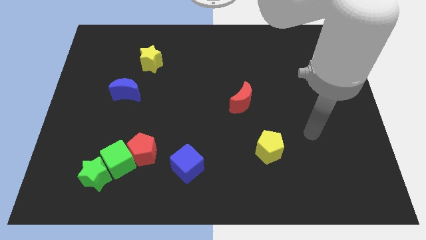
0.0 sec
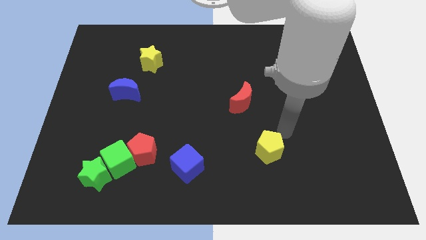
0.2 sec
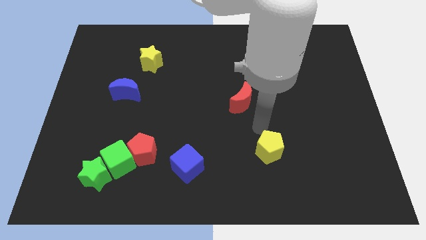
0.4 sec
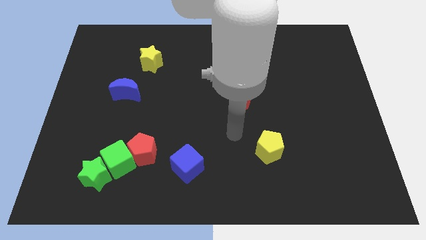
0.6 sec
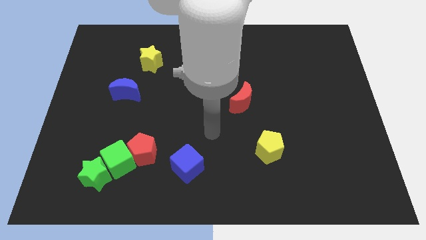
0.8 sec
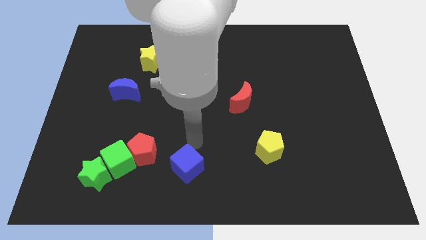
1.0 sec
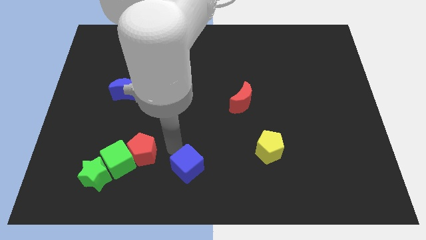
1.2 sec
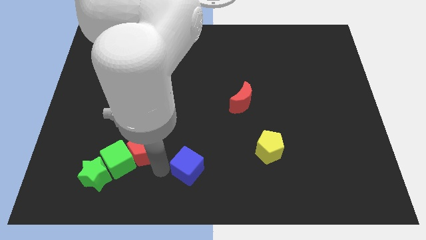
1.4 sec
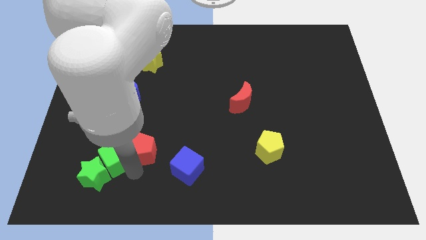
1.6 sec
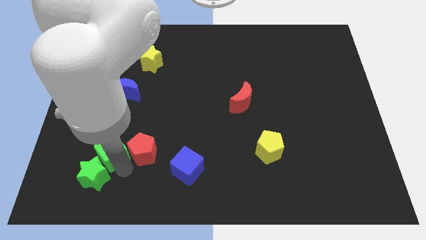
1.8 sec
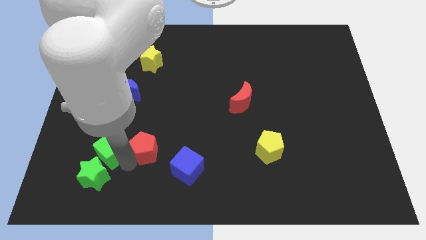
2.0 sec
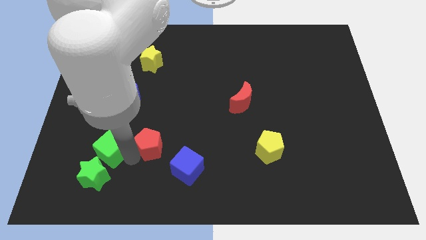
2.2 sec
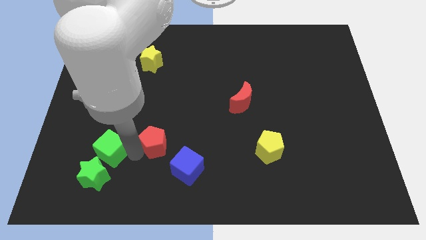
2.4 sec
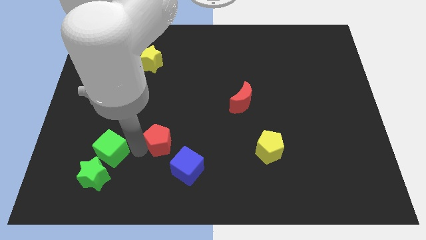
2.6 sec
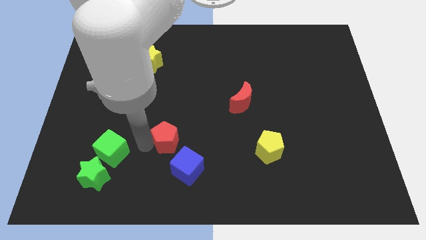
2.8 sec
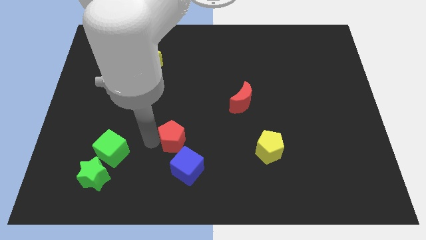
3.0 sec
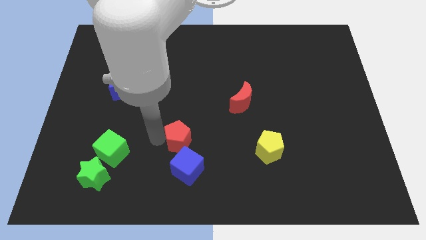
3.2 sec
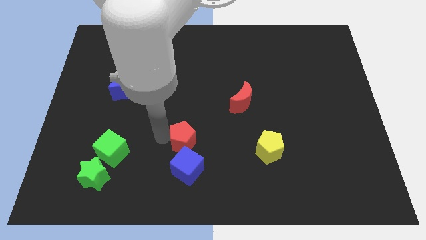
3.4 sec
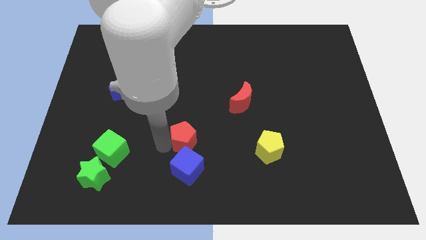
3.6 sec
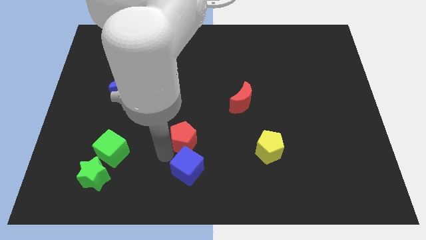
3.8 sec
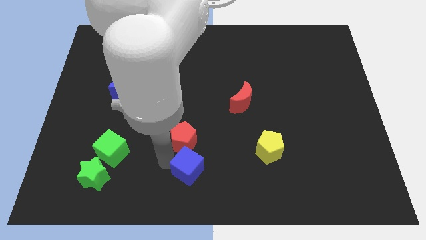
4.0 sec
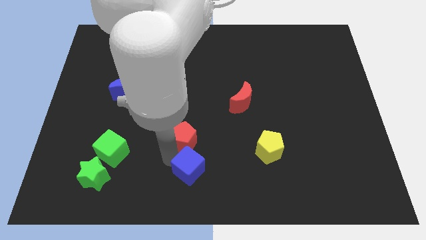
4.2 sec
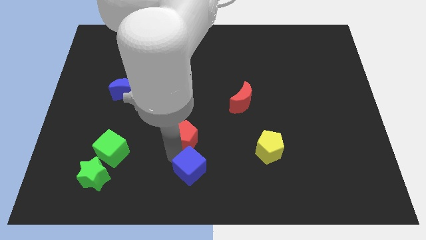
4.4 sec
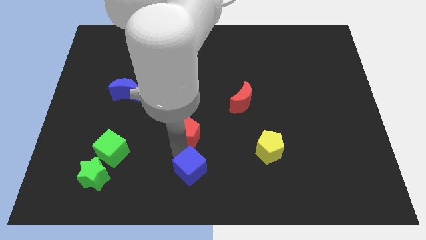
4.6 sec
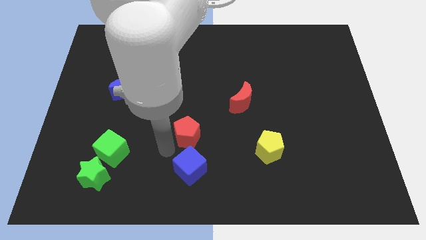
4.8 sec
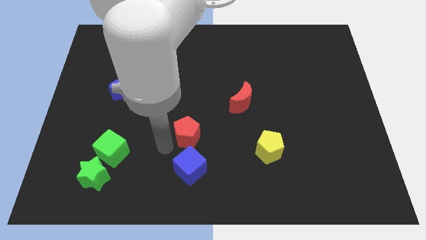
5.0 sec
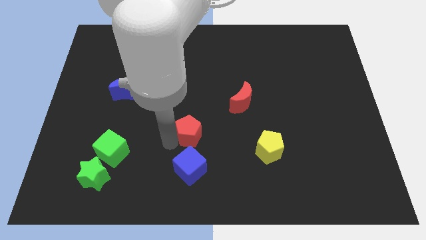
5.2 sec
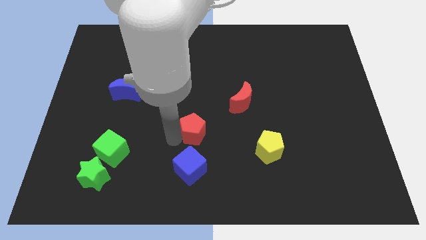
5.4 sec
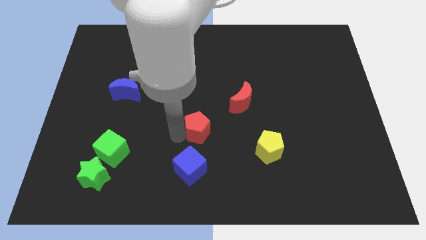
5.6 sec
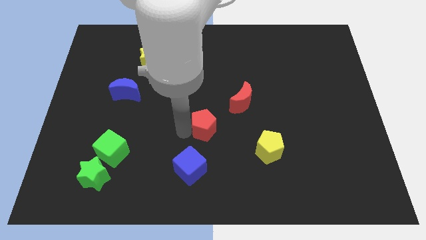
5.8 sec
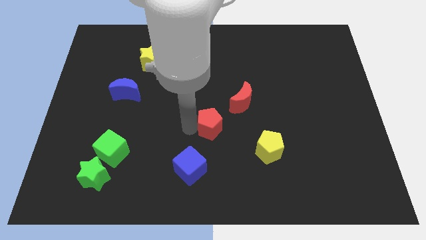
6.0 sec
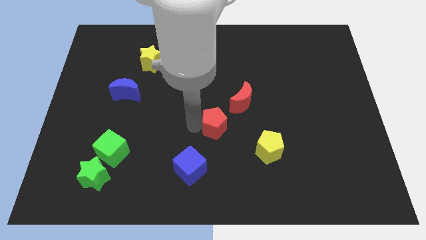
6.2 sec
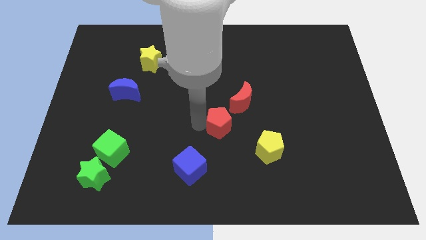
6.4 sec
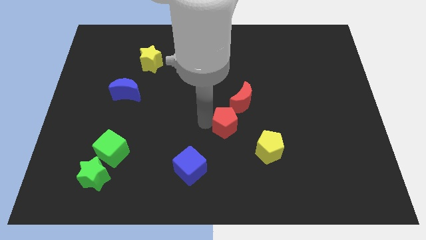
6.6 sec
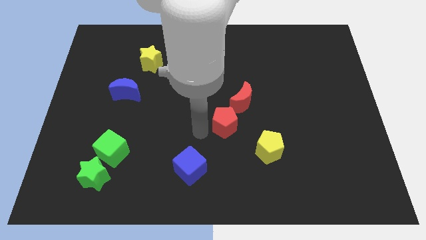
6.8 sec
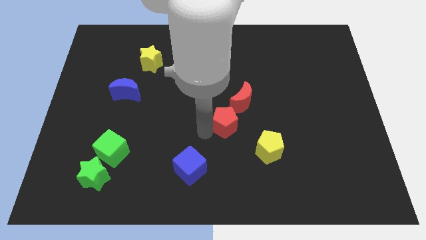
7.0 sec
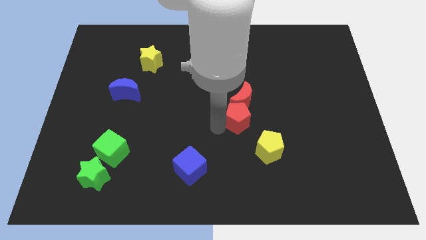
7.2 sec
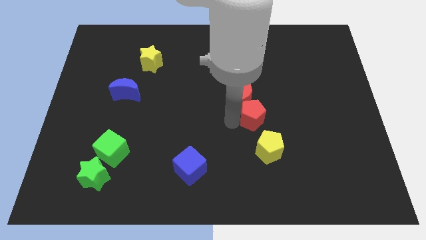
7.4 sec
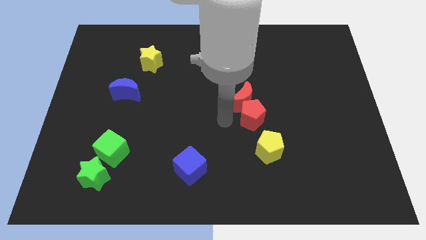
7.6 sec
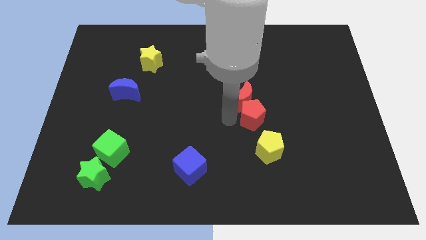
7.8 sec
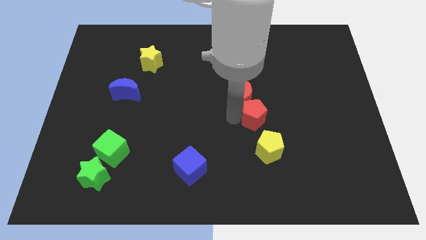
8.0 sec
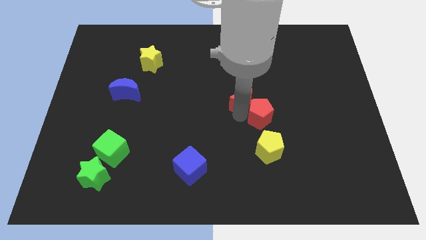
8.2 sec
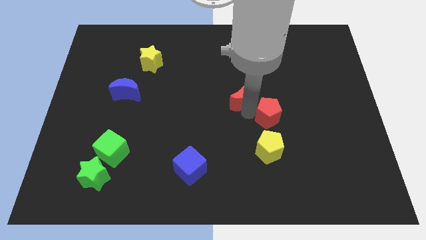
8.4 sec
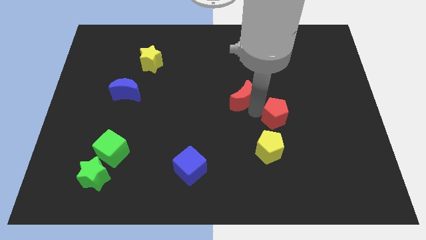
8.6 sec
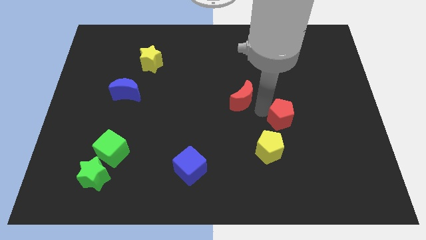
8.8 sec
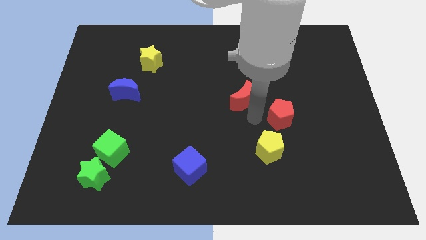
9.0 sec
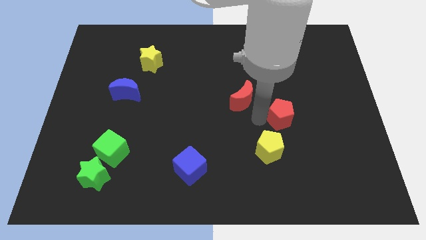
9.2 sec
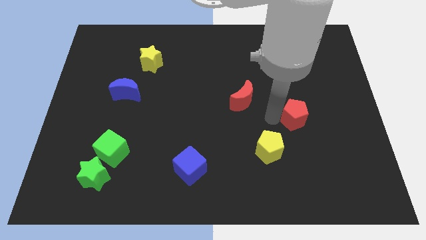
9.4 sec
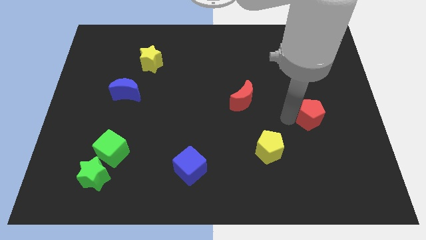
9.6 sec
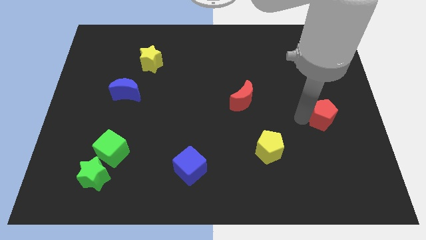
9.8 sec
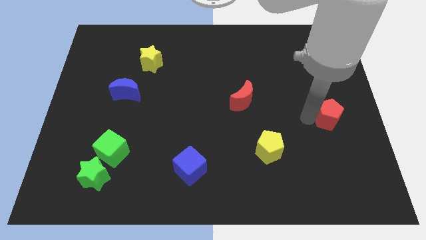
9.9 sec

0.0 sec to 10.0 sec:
move the red pentagon to the right side

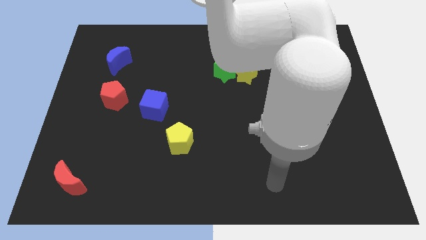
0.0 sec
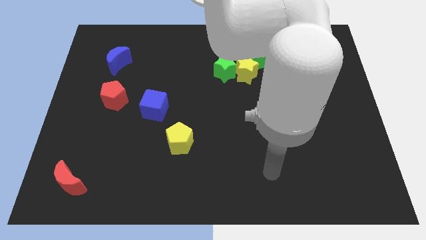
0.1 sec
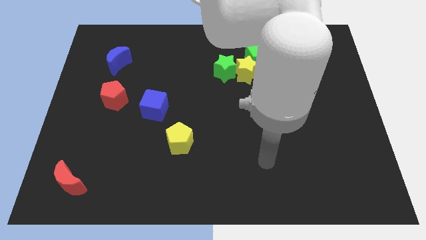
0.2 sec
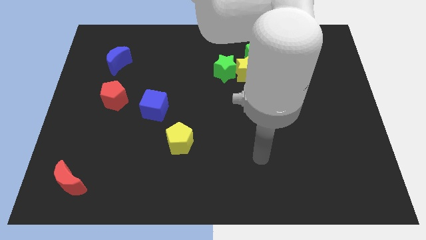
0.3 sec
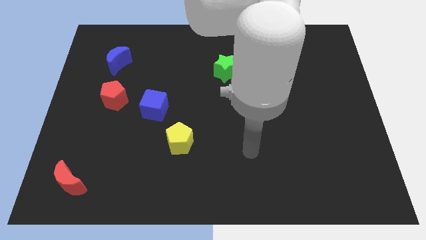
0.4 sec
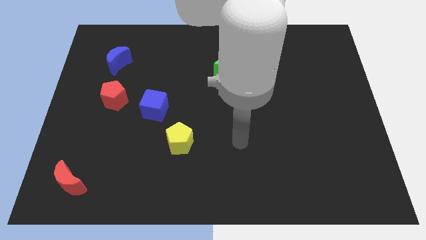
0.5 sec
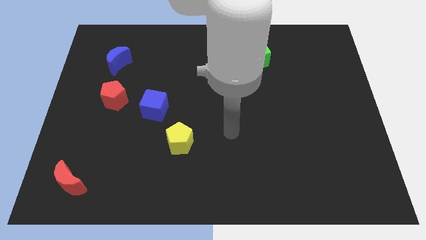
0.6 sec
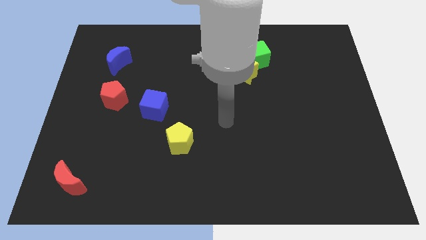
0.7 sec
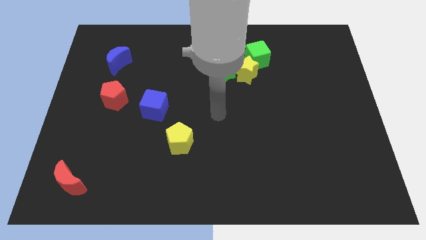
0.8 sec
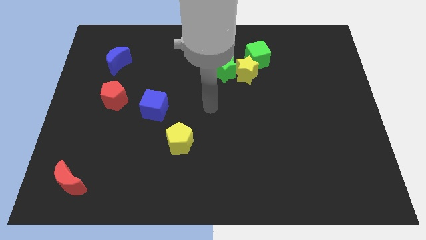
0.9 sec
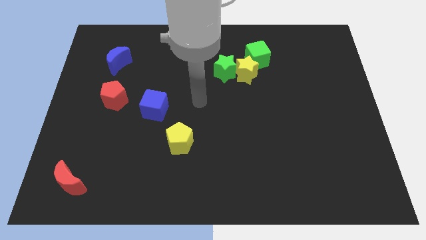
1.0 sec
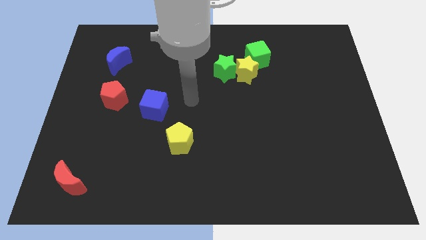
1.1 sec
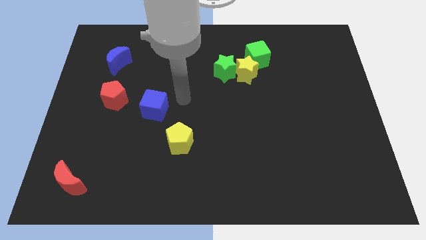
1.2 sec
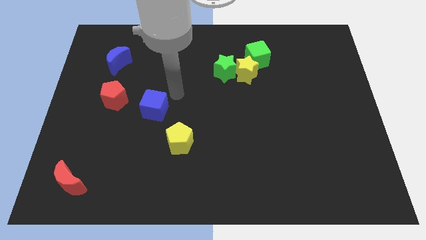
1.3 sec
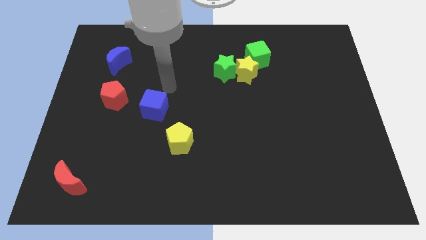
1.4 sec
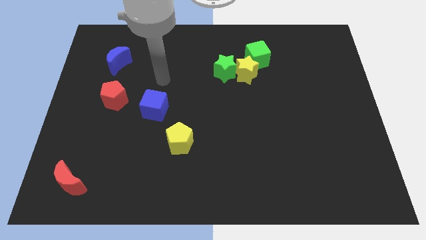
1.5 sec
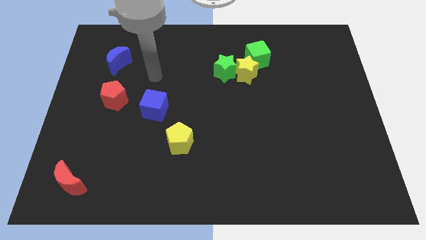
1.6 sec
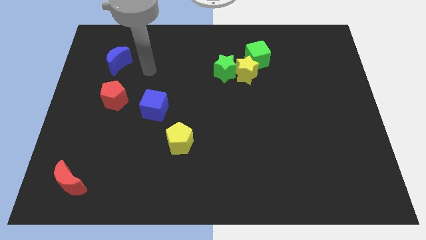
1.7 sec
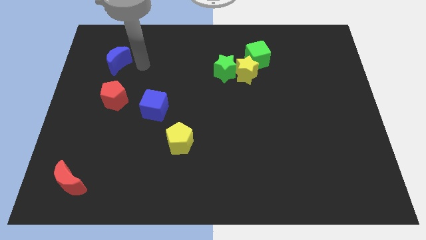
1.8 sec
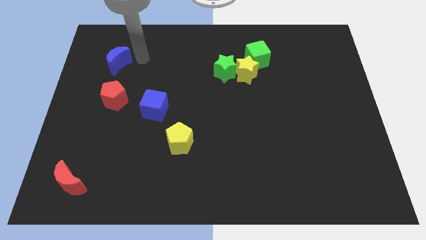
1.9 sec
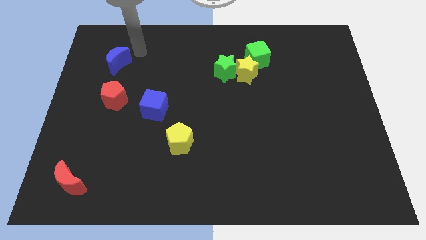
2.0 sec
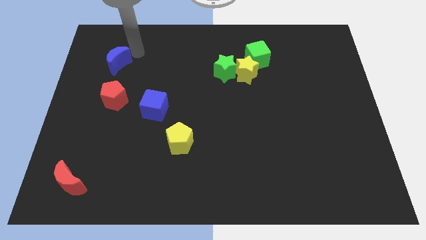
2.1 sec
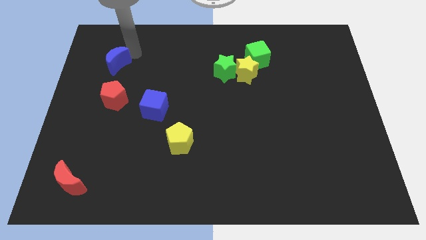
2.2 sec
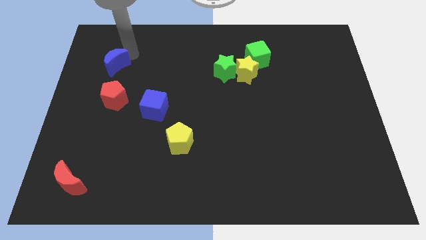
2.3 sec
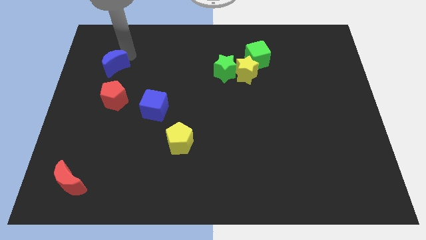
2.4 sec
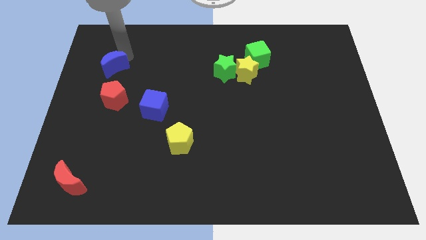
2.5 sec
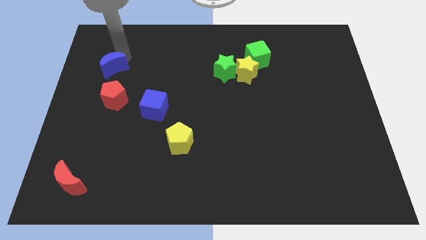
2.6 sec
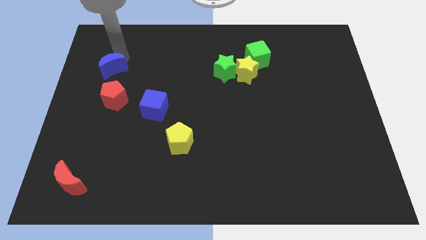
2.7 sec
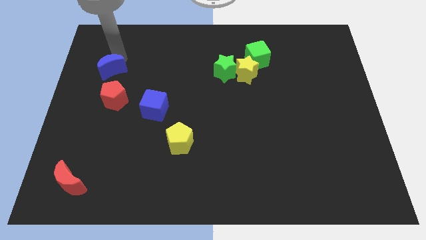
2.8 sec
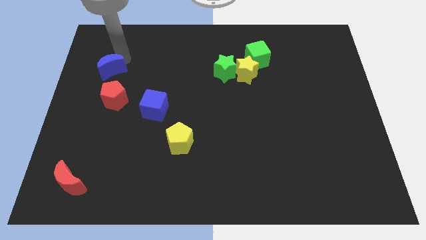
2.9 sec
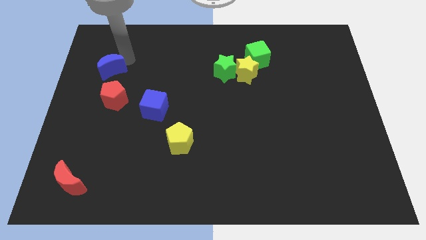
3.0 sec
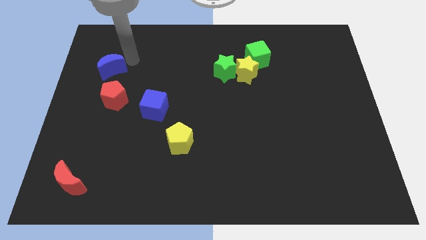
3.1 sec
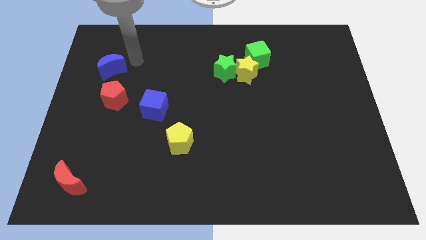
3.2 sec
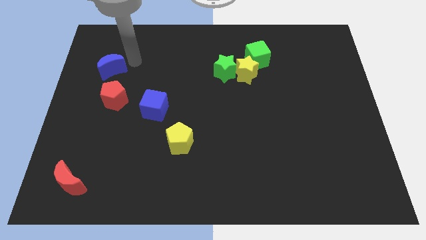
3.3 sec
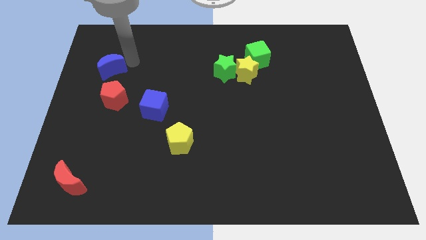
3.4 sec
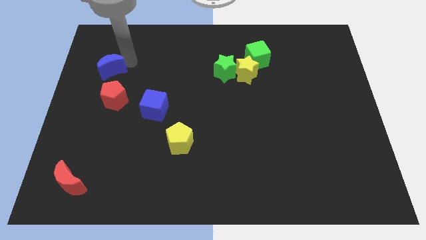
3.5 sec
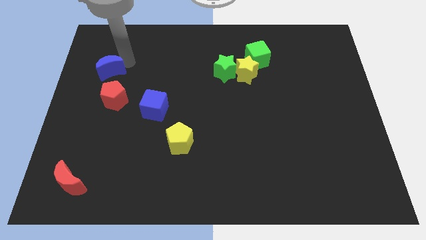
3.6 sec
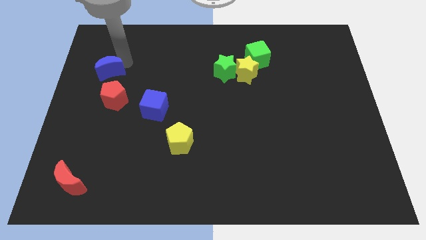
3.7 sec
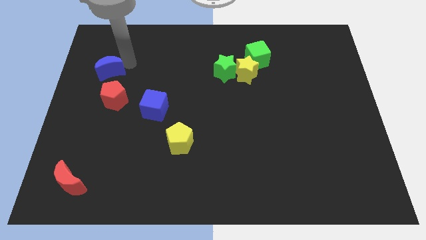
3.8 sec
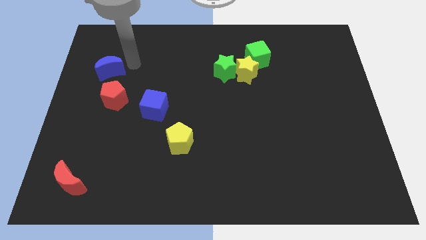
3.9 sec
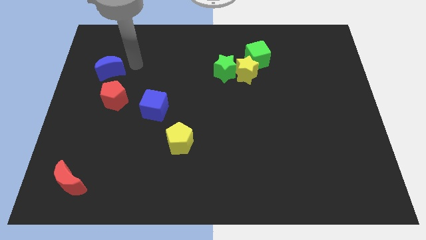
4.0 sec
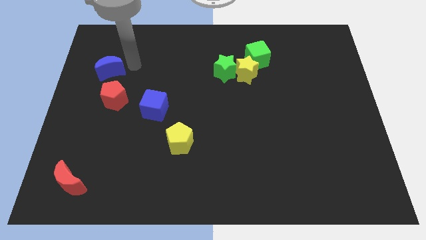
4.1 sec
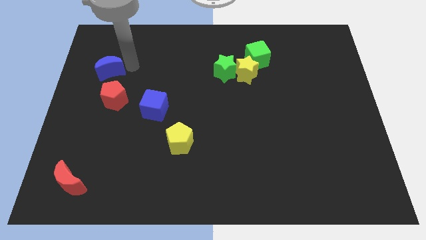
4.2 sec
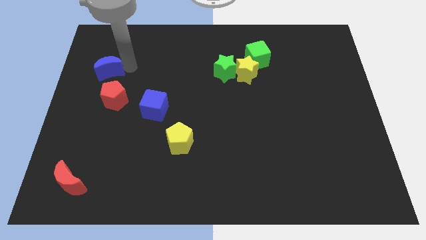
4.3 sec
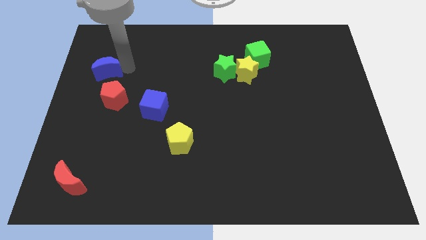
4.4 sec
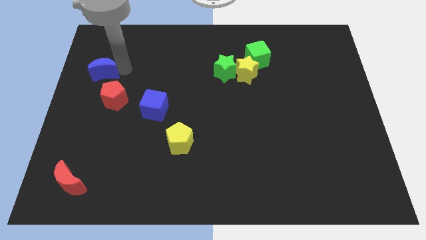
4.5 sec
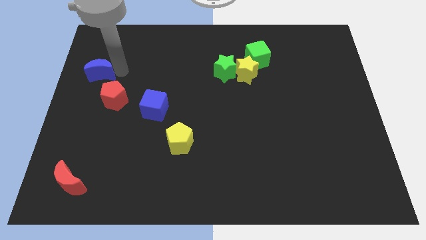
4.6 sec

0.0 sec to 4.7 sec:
put the blue moon to the left side of the board
